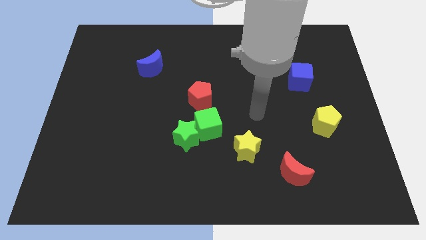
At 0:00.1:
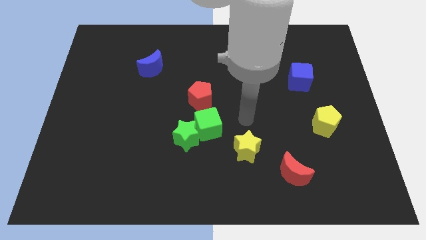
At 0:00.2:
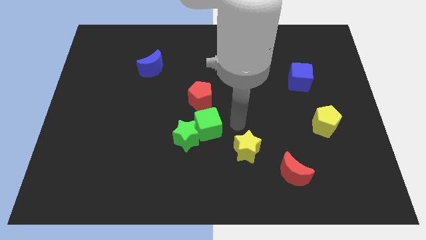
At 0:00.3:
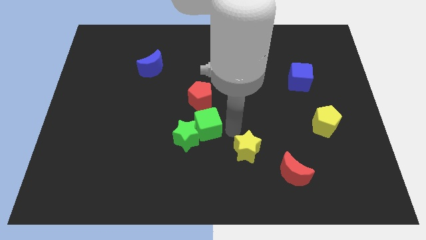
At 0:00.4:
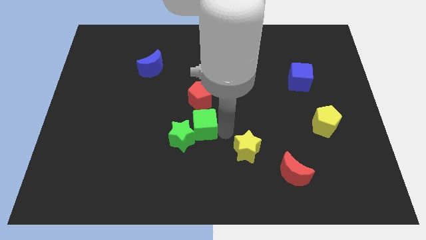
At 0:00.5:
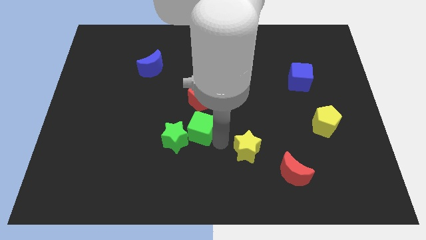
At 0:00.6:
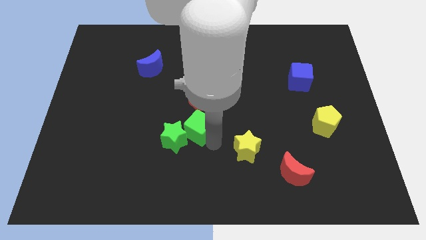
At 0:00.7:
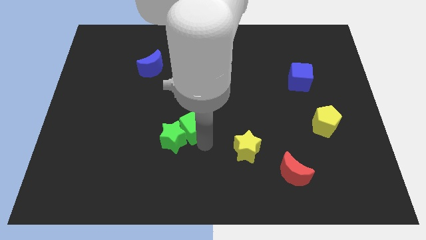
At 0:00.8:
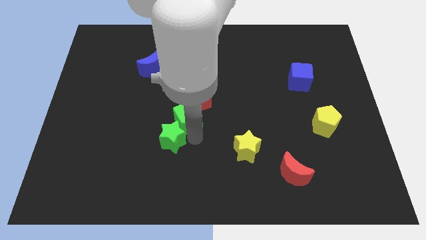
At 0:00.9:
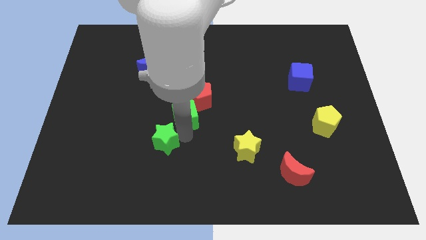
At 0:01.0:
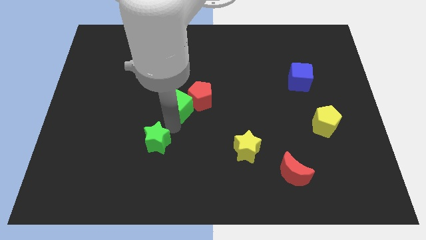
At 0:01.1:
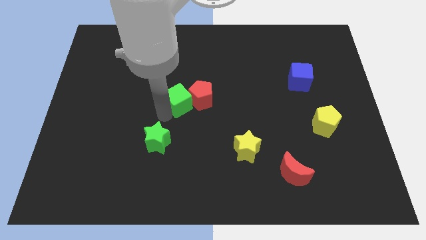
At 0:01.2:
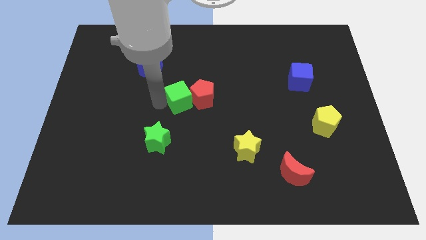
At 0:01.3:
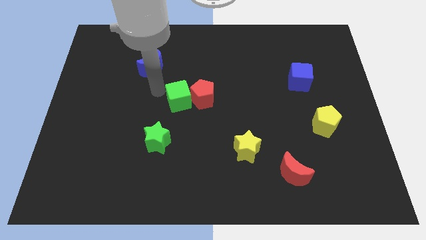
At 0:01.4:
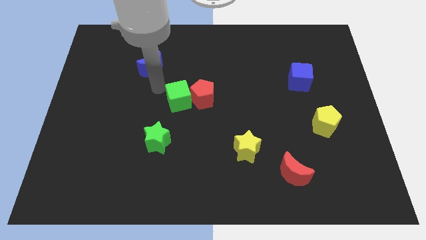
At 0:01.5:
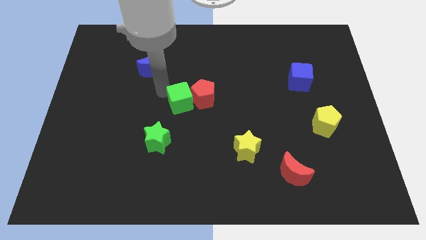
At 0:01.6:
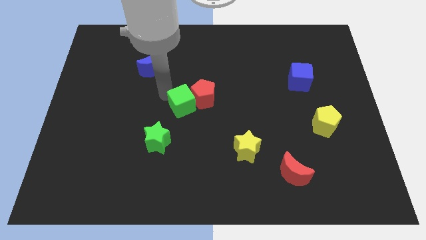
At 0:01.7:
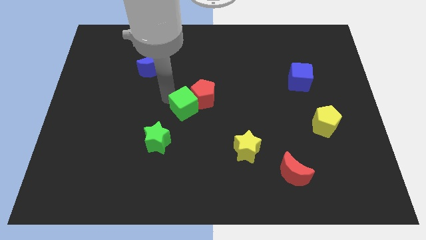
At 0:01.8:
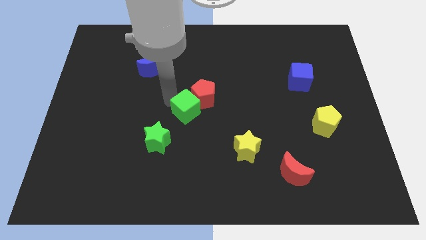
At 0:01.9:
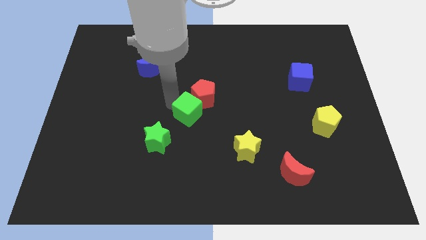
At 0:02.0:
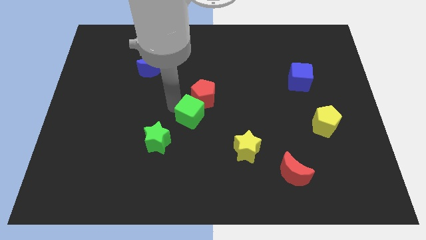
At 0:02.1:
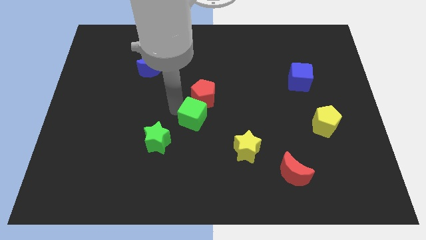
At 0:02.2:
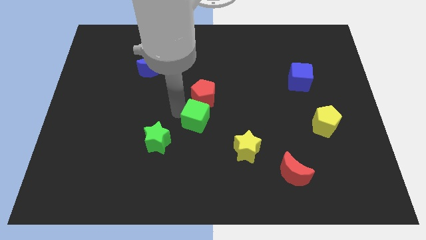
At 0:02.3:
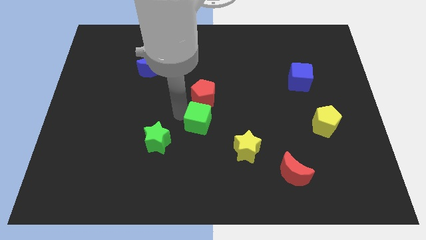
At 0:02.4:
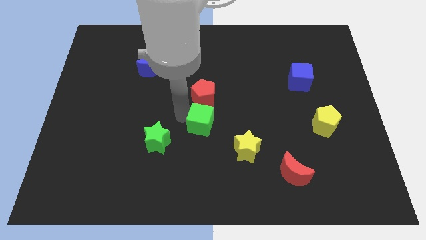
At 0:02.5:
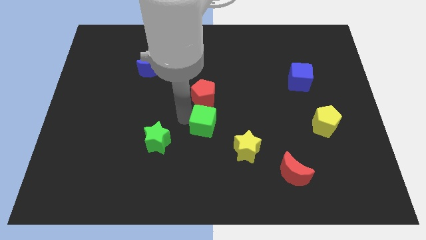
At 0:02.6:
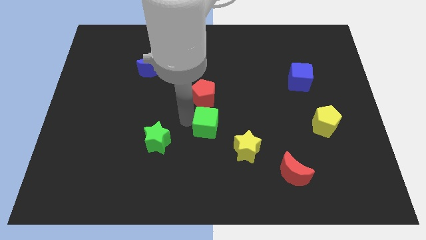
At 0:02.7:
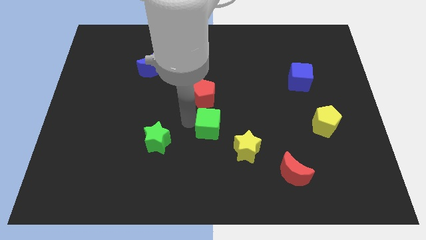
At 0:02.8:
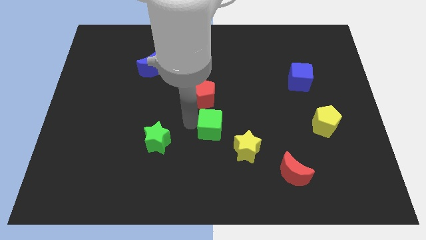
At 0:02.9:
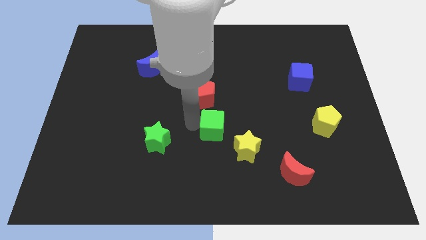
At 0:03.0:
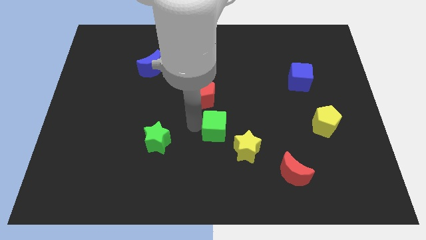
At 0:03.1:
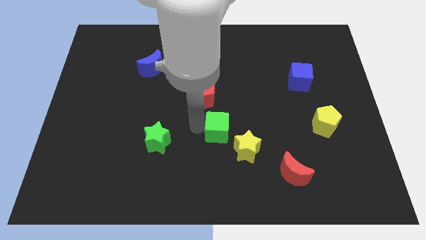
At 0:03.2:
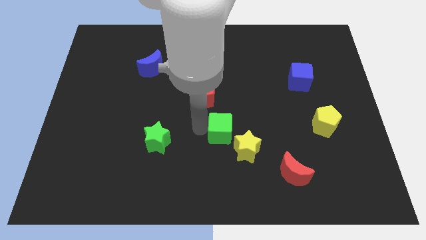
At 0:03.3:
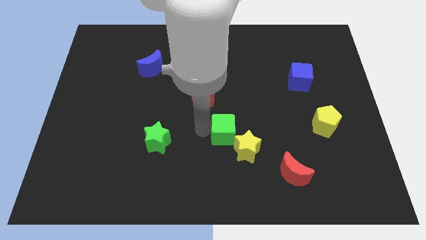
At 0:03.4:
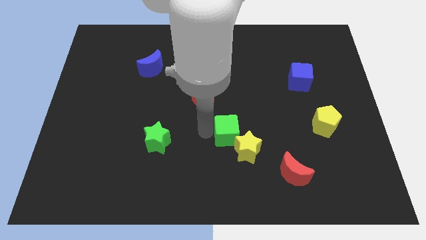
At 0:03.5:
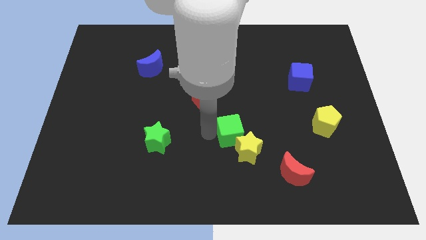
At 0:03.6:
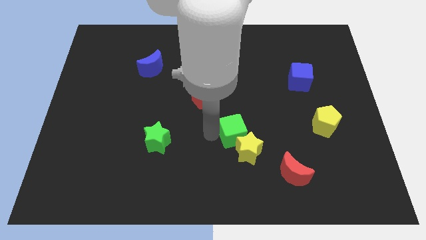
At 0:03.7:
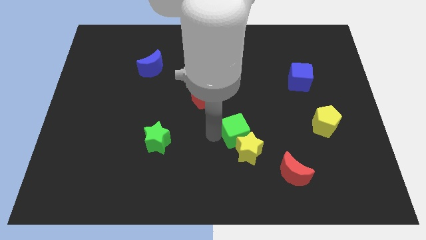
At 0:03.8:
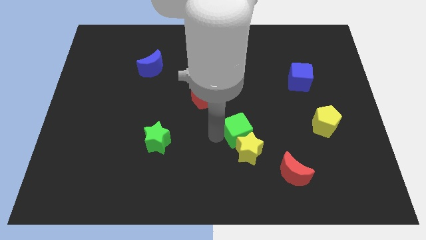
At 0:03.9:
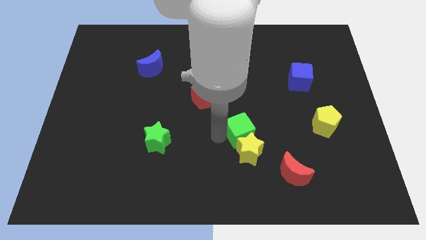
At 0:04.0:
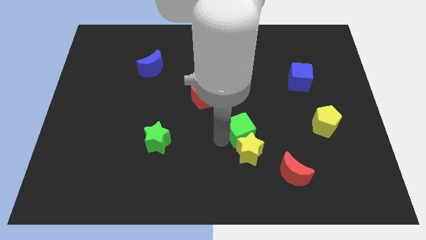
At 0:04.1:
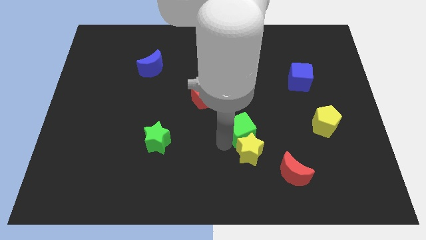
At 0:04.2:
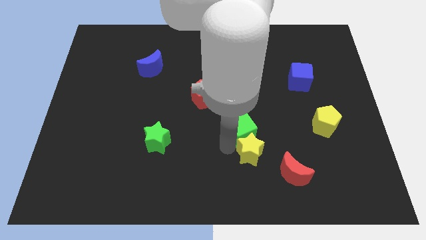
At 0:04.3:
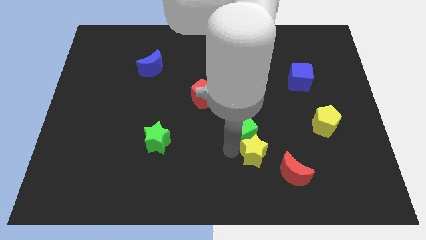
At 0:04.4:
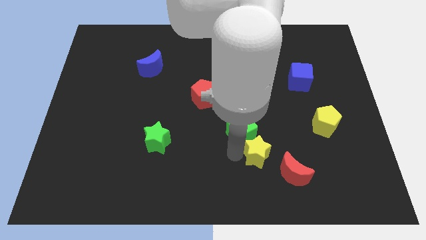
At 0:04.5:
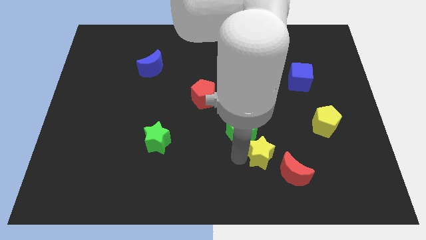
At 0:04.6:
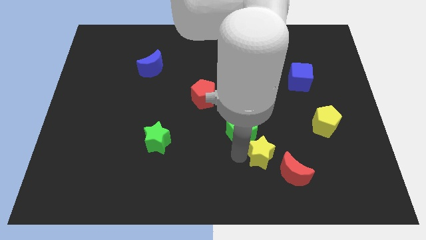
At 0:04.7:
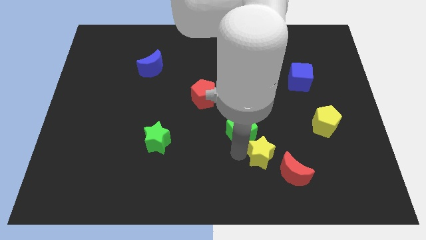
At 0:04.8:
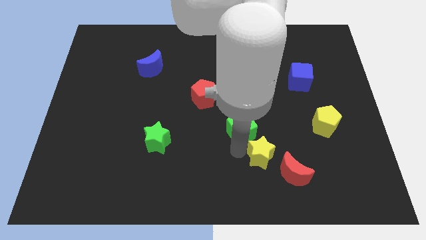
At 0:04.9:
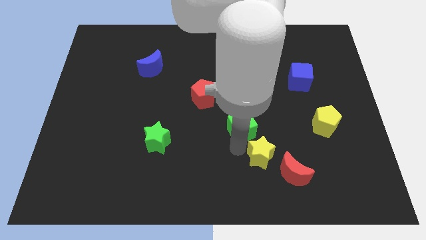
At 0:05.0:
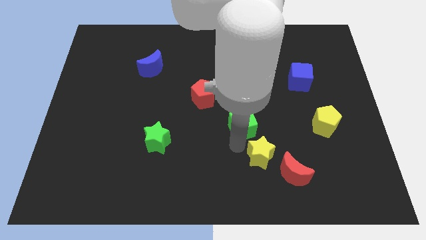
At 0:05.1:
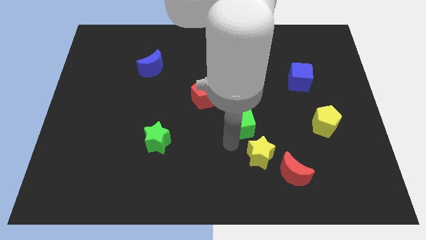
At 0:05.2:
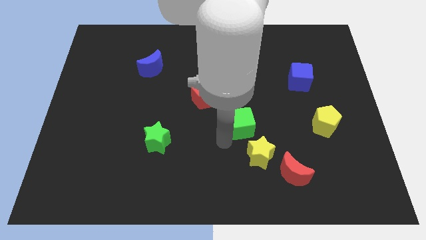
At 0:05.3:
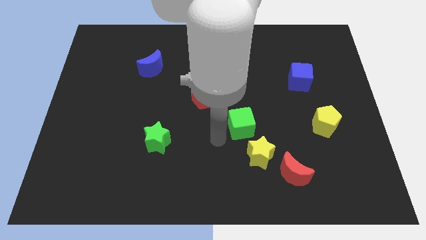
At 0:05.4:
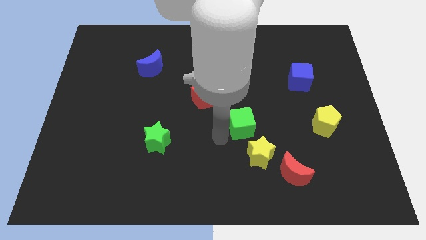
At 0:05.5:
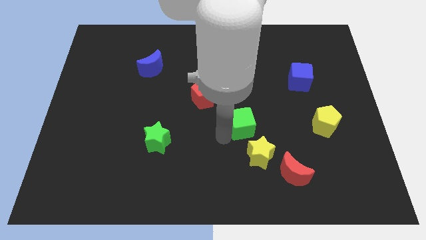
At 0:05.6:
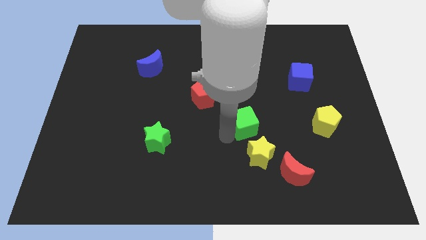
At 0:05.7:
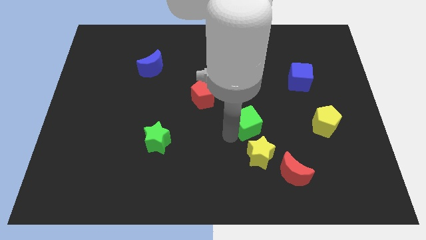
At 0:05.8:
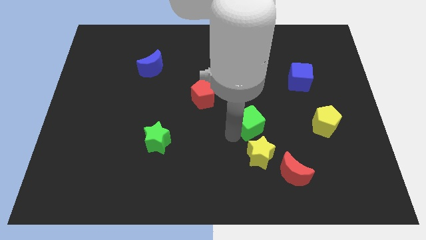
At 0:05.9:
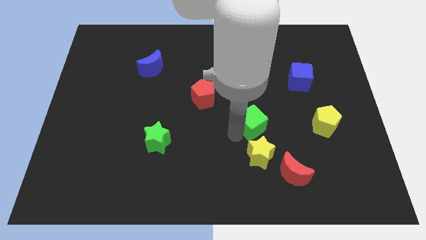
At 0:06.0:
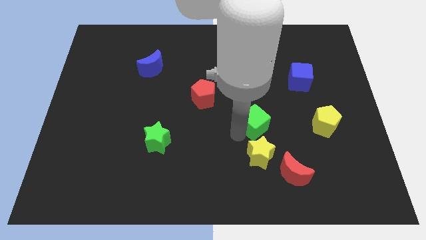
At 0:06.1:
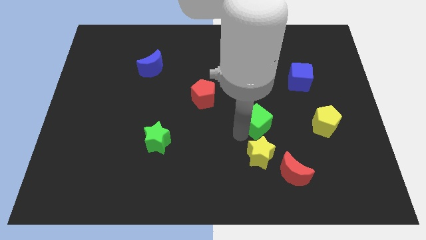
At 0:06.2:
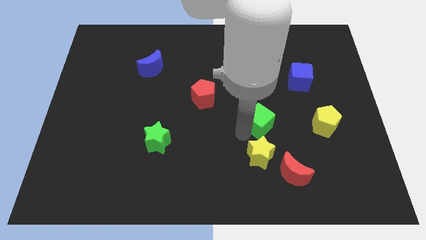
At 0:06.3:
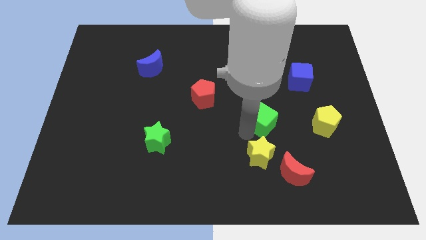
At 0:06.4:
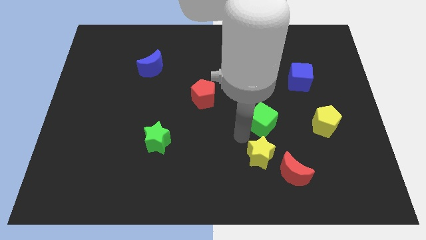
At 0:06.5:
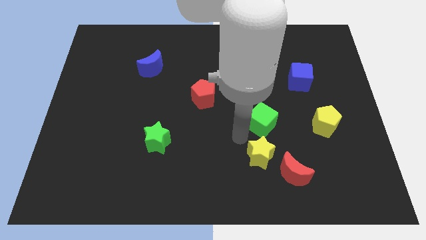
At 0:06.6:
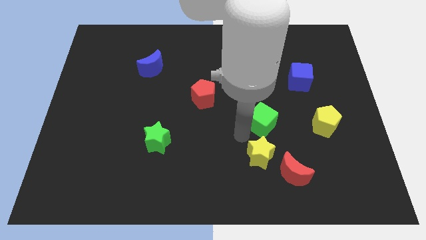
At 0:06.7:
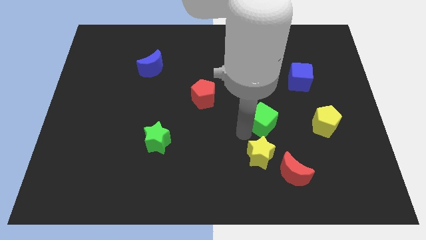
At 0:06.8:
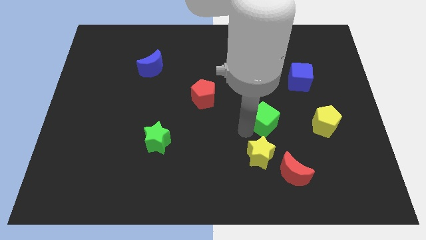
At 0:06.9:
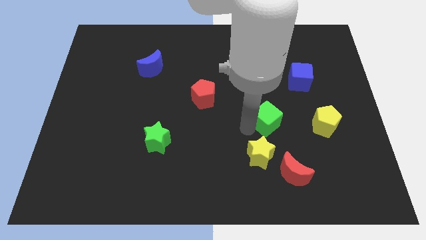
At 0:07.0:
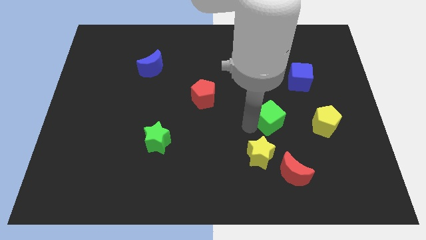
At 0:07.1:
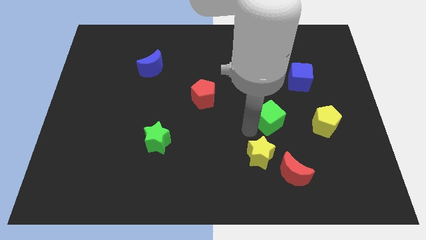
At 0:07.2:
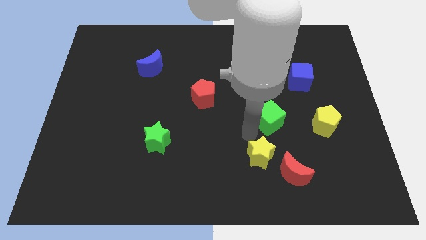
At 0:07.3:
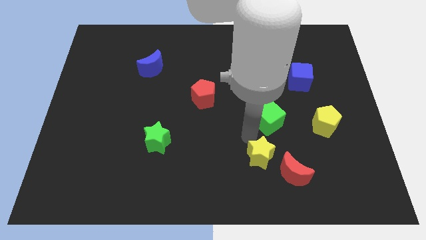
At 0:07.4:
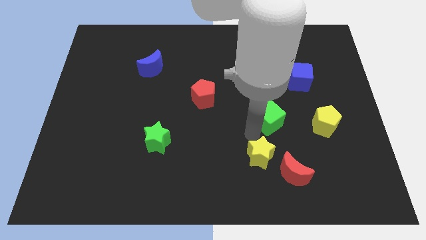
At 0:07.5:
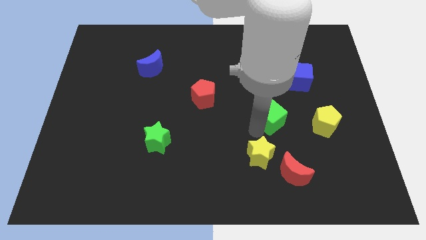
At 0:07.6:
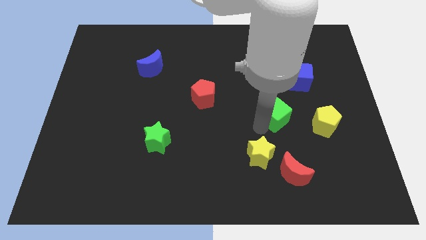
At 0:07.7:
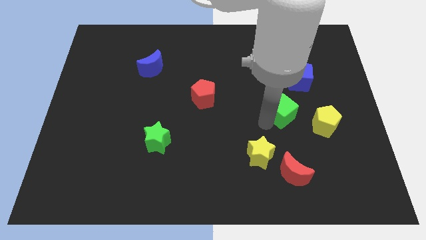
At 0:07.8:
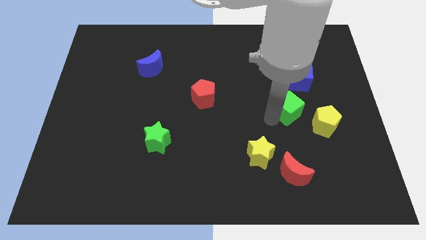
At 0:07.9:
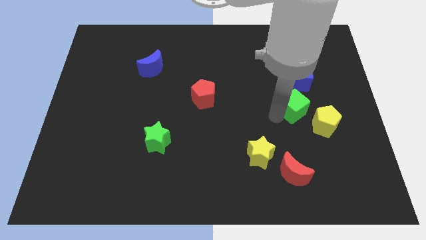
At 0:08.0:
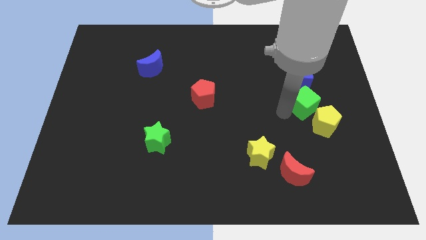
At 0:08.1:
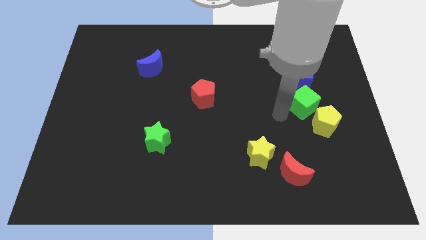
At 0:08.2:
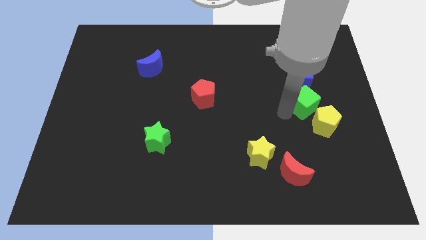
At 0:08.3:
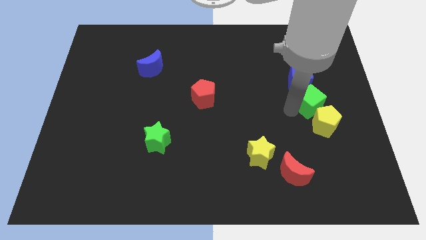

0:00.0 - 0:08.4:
move the green cube diagonally down and to the right of the blue cube
